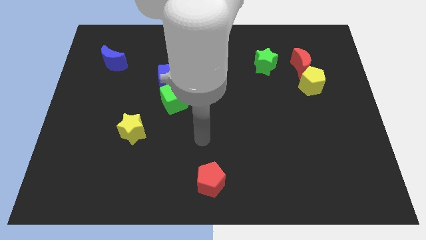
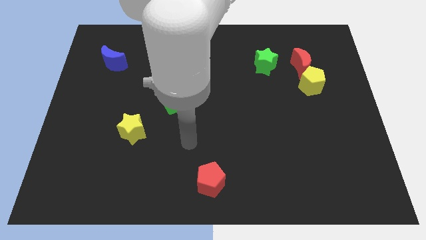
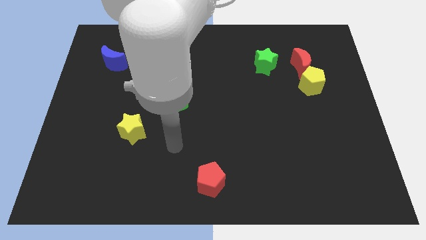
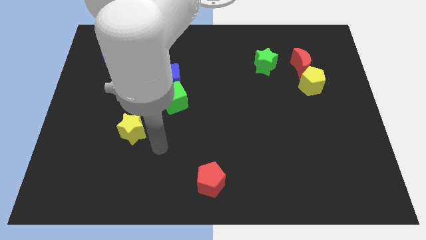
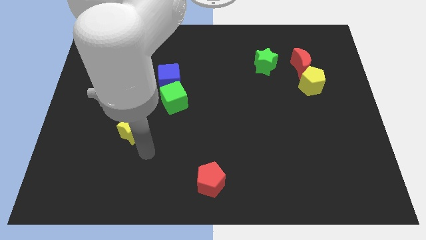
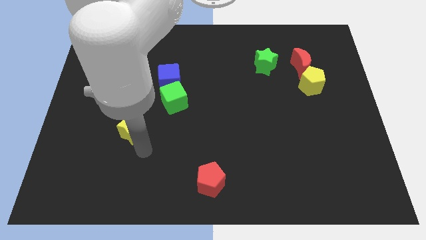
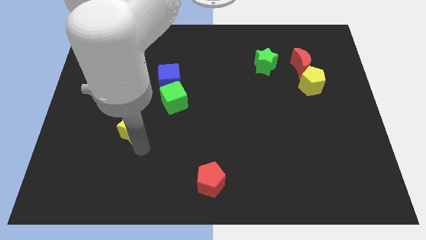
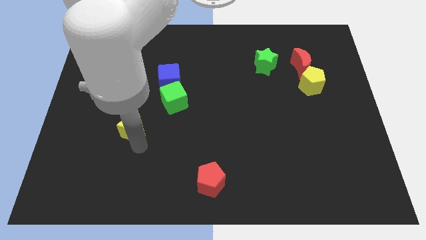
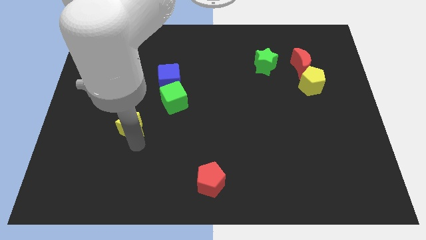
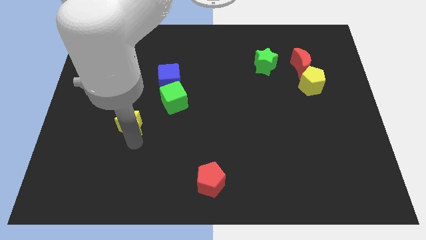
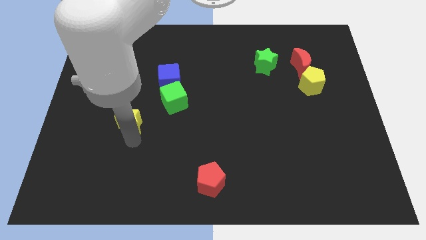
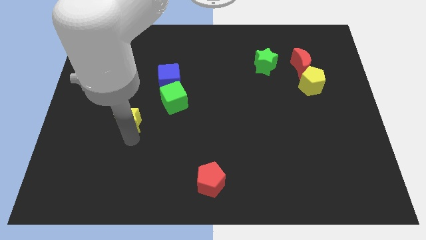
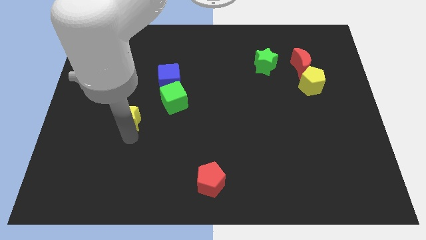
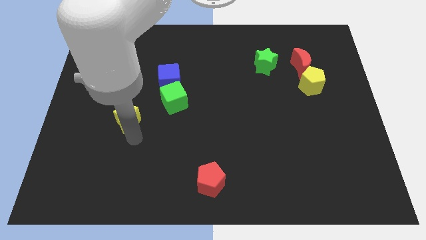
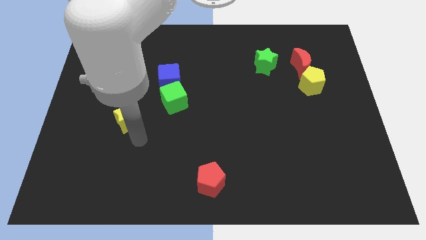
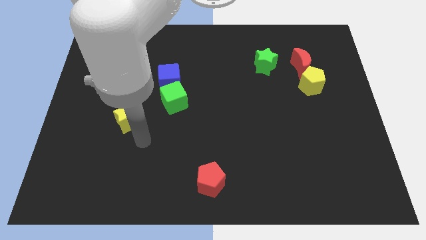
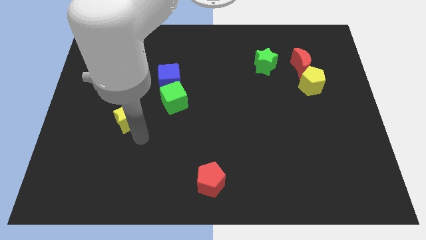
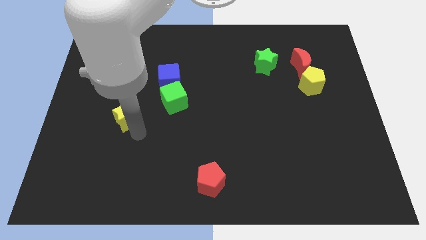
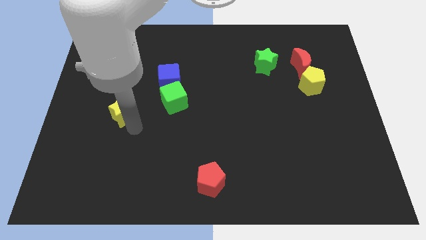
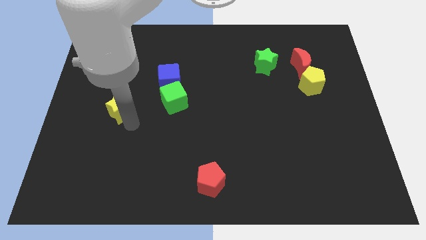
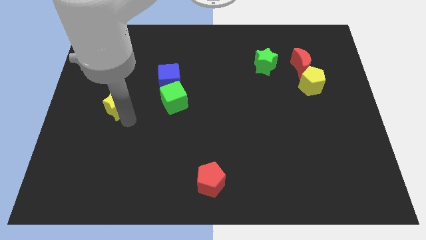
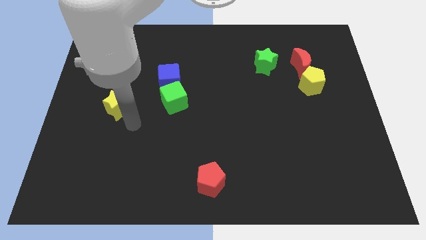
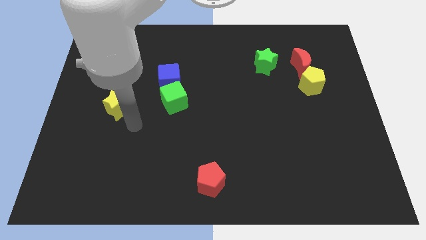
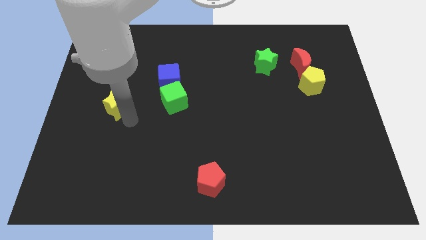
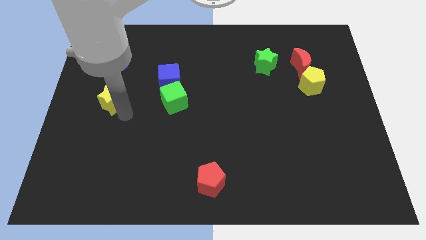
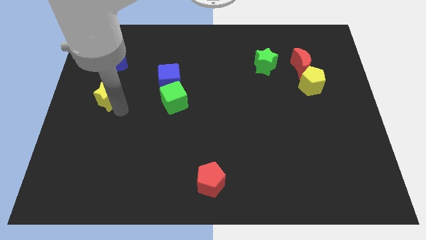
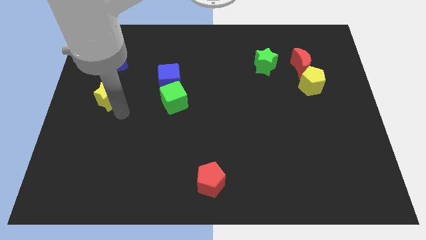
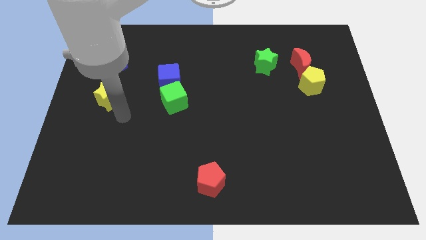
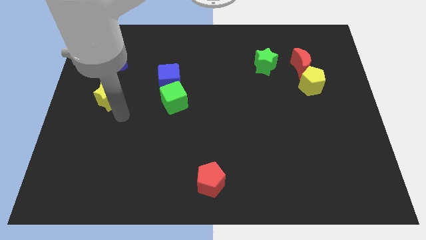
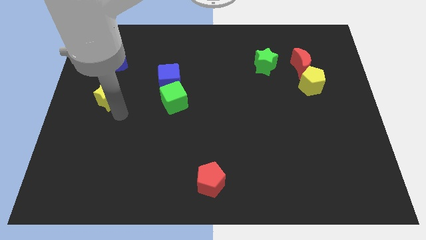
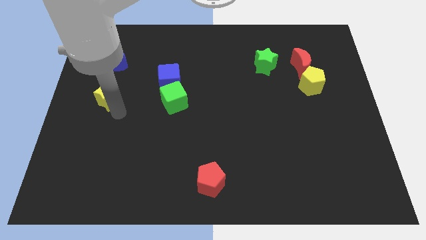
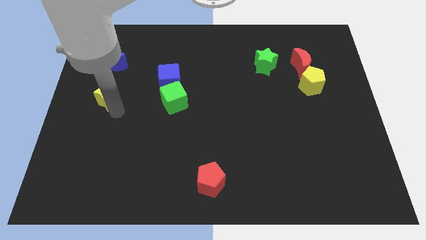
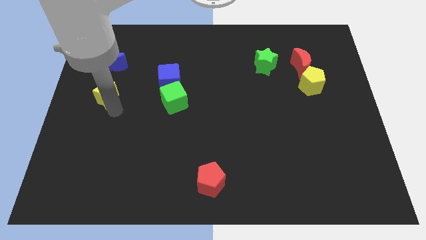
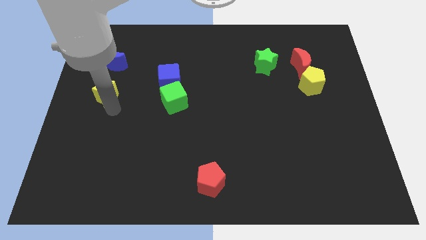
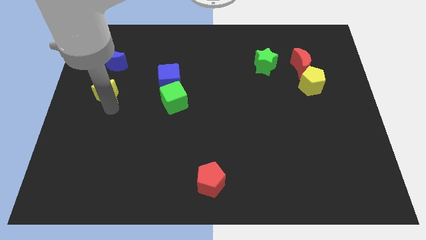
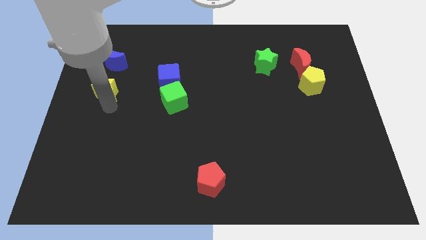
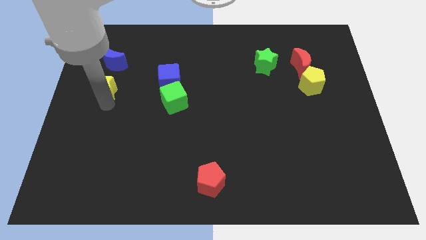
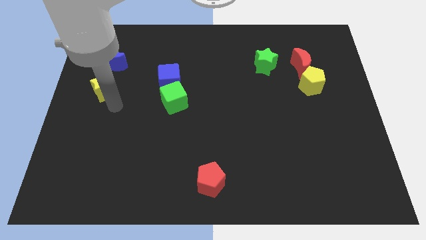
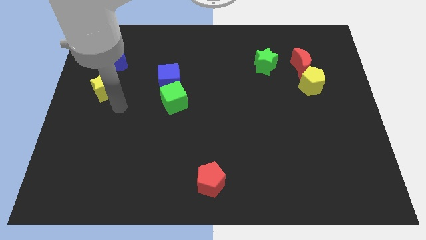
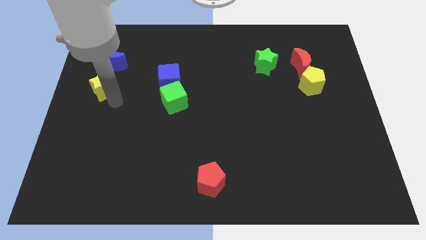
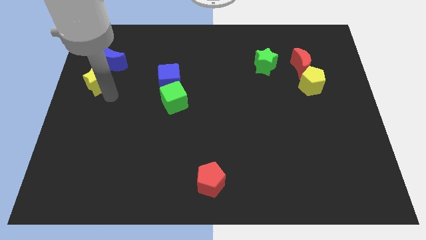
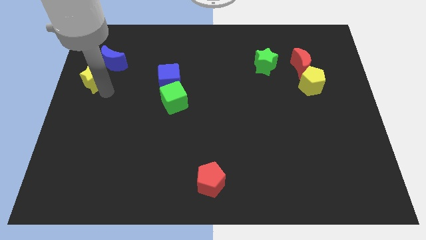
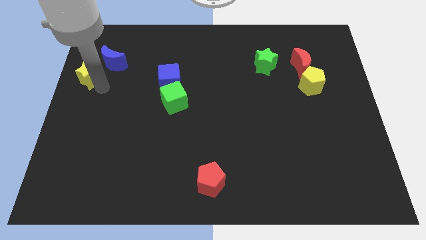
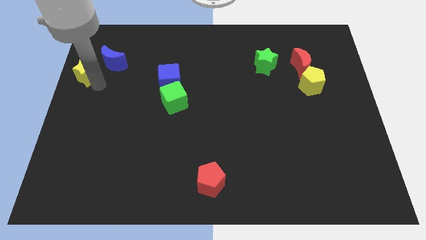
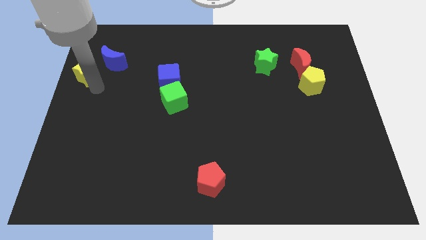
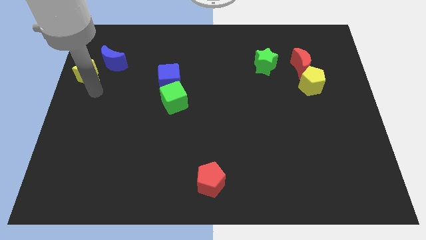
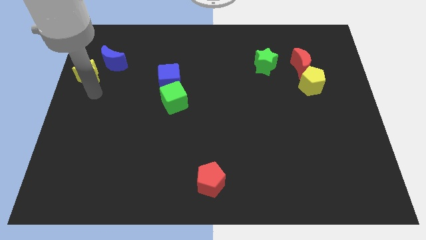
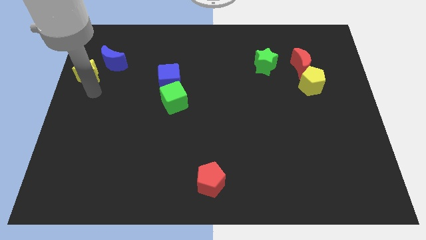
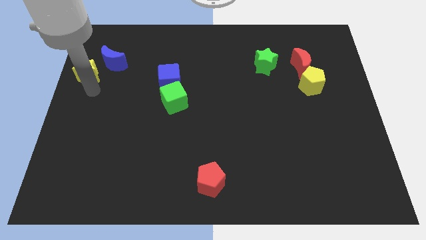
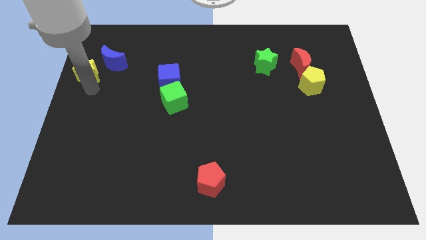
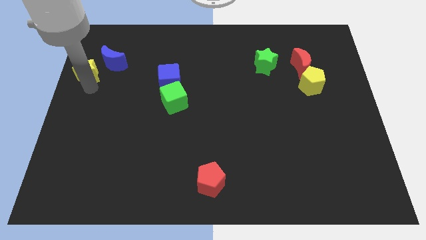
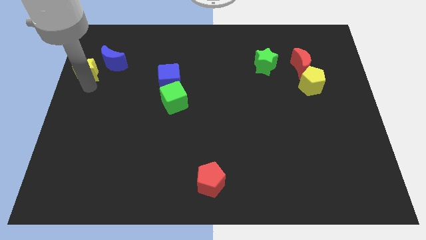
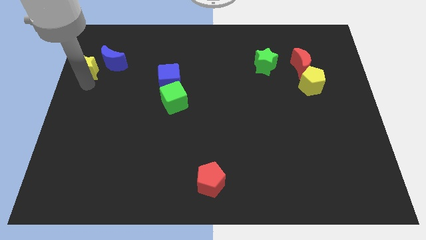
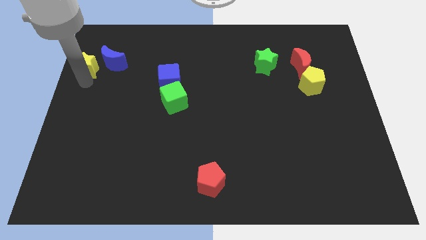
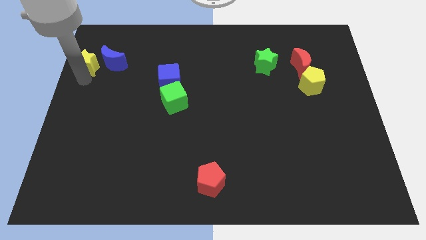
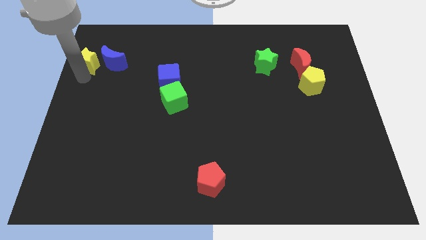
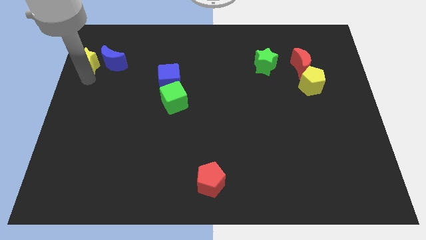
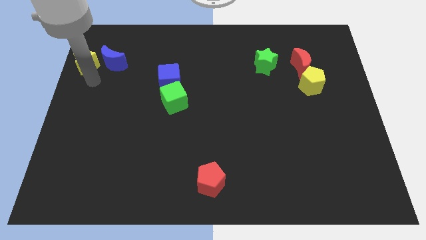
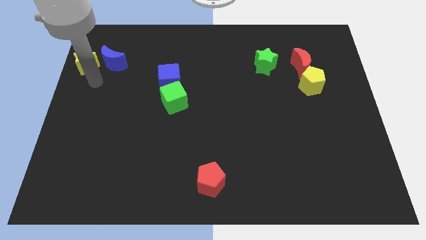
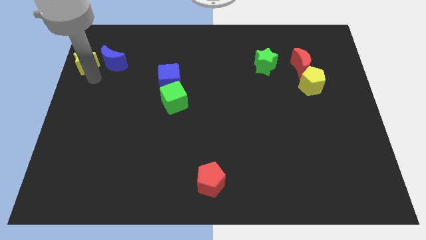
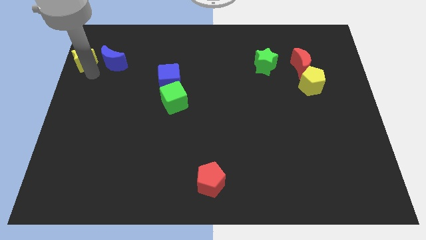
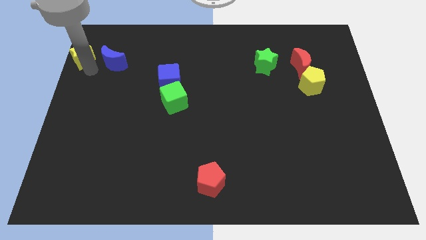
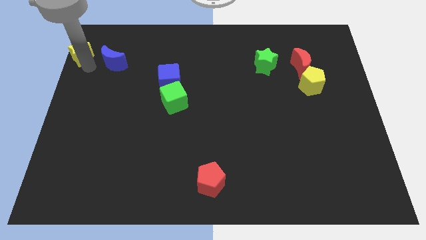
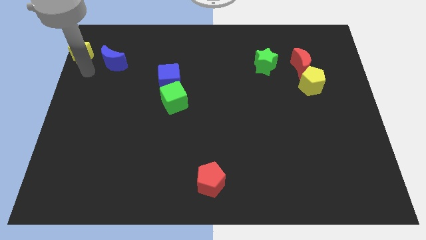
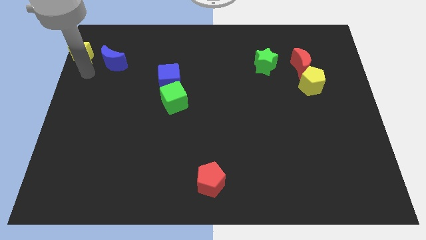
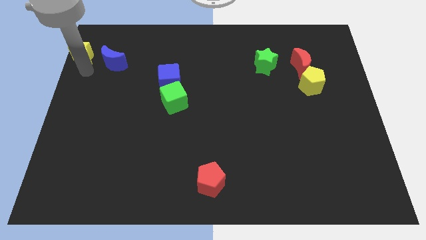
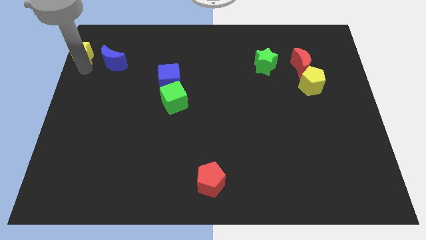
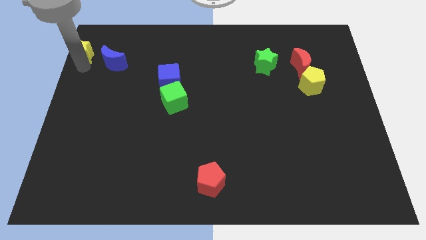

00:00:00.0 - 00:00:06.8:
push the yellow star to the upper left corner

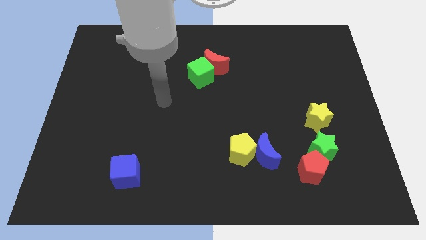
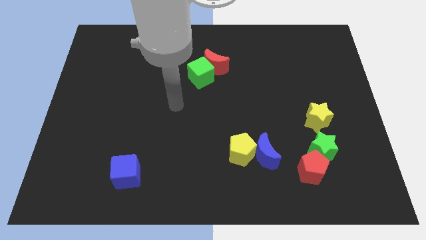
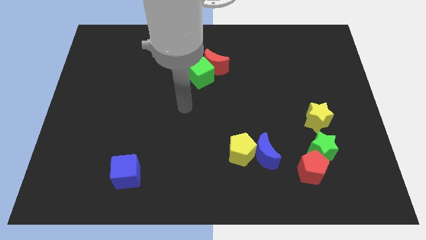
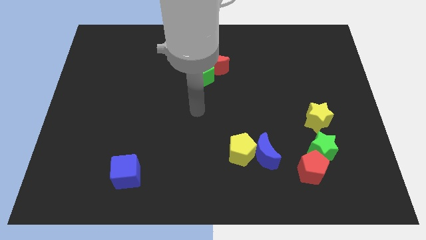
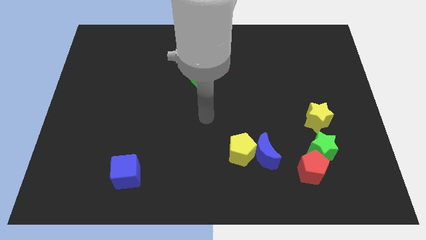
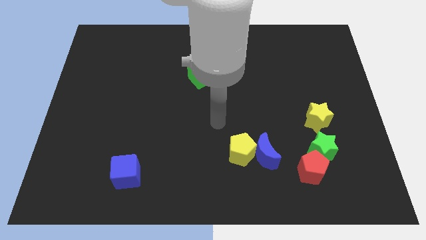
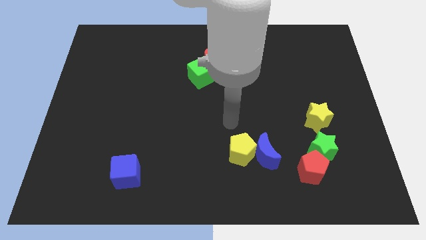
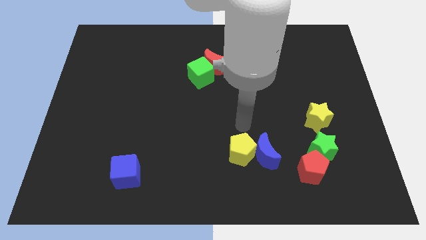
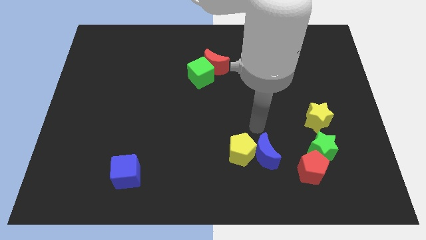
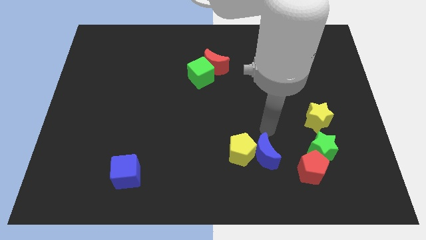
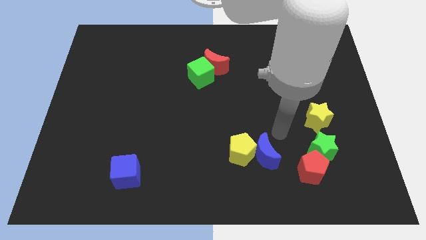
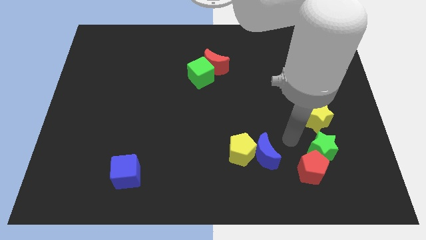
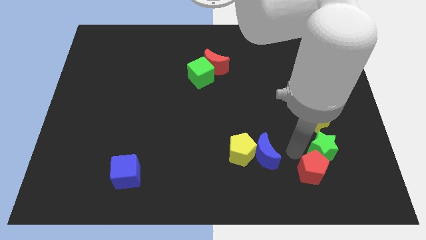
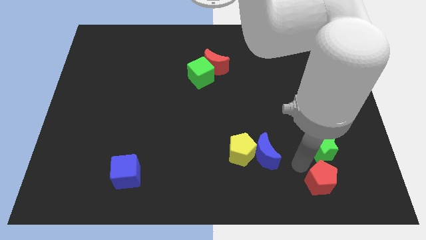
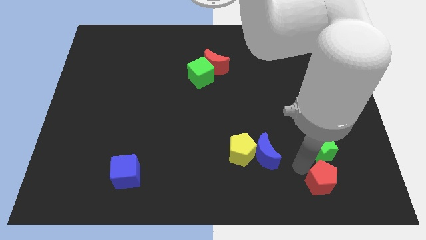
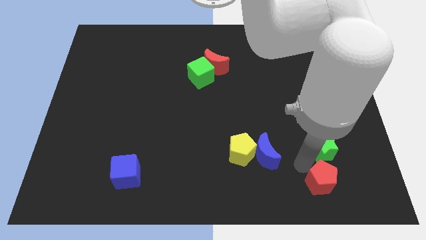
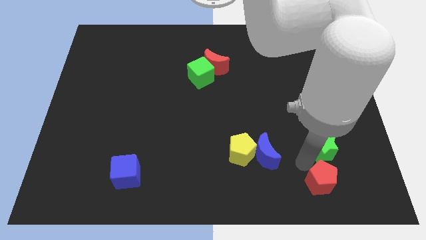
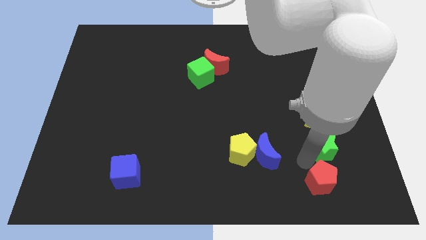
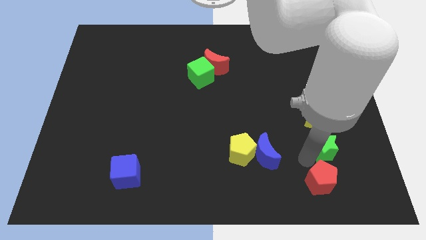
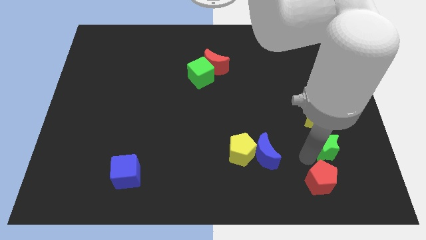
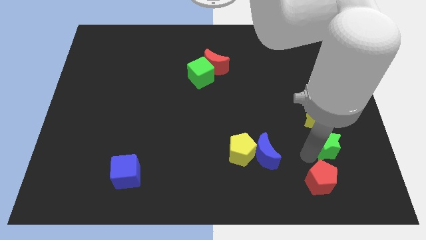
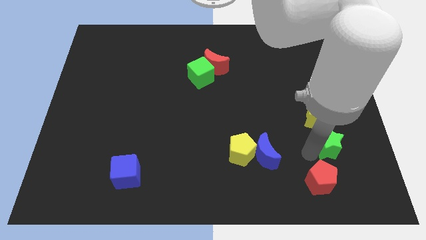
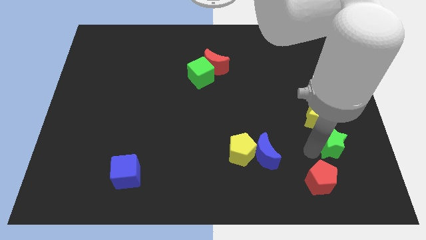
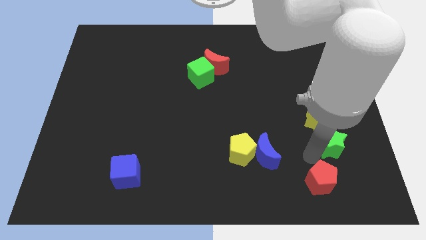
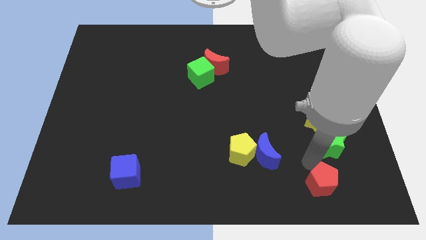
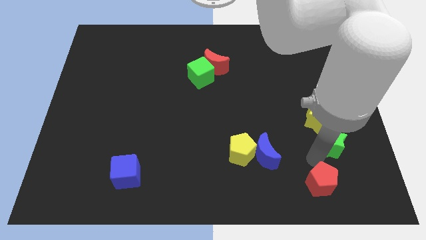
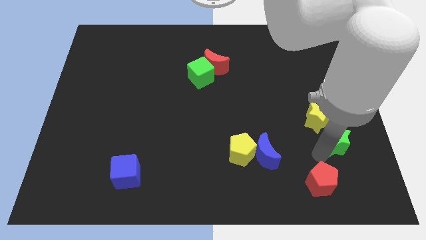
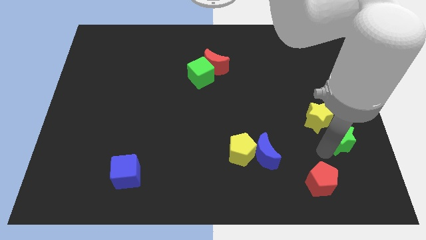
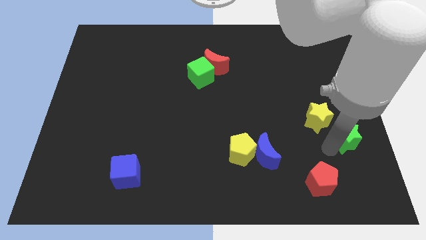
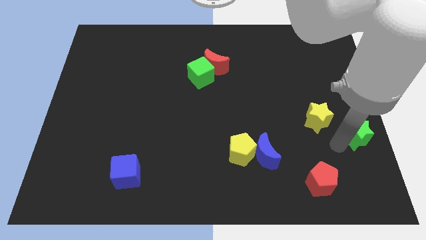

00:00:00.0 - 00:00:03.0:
put the green star to the right side of the board
